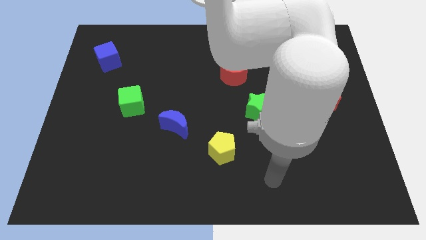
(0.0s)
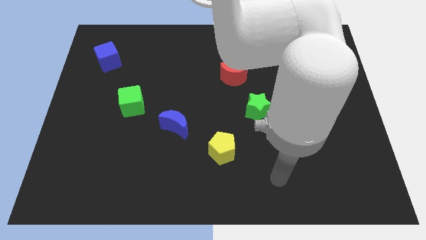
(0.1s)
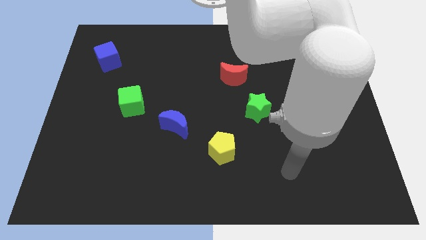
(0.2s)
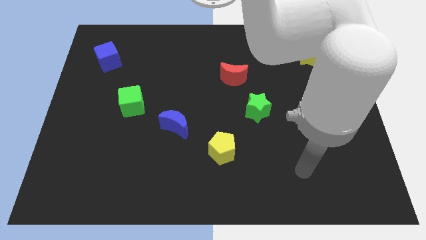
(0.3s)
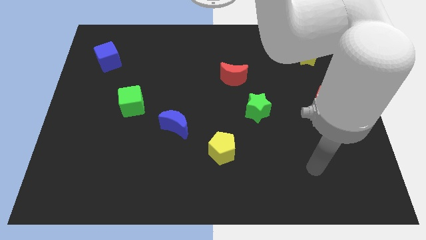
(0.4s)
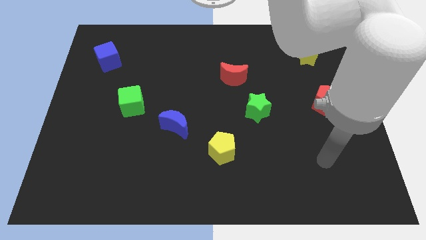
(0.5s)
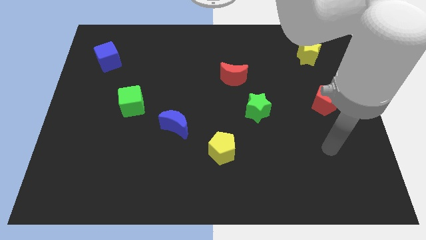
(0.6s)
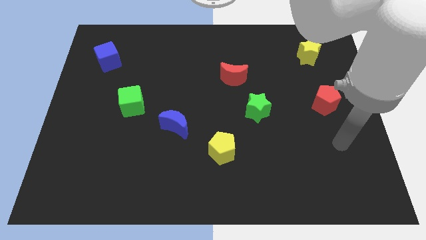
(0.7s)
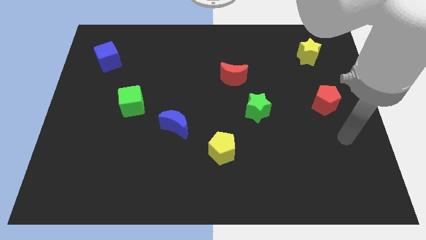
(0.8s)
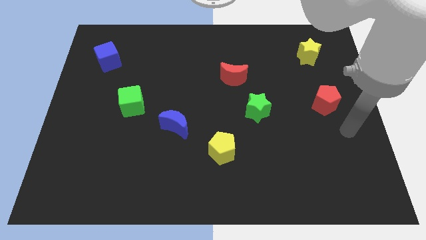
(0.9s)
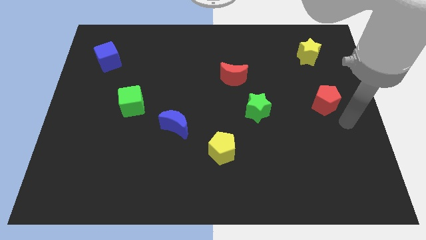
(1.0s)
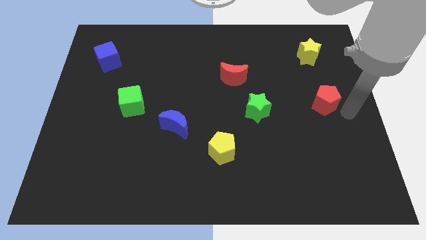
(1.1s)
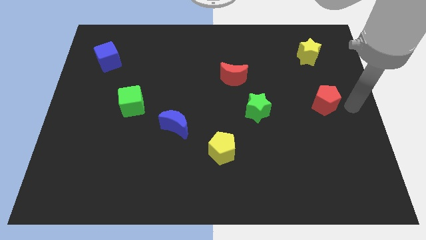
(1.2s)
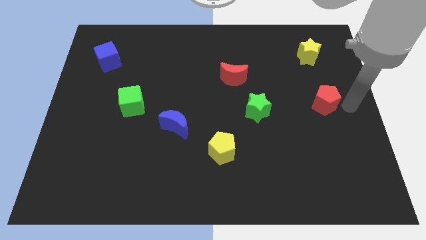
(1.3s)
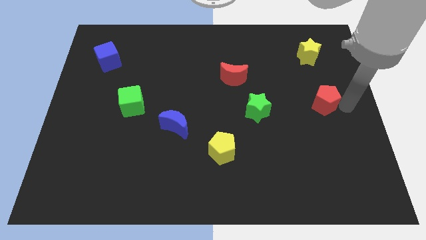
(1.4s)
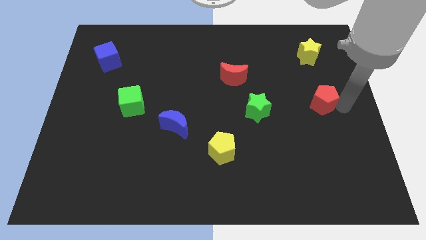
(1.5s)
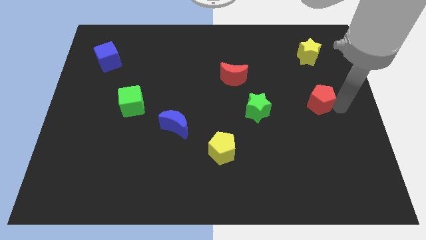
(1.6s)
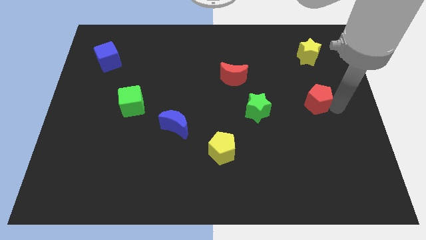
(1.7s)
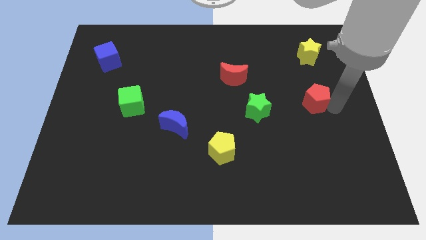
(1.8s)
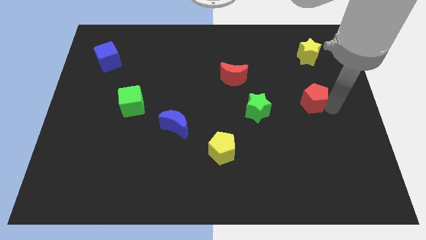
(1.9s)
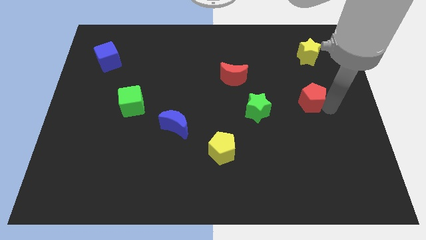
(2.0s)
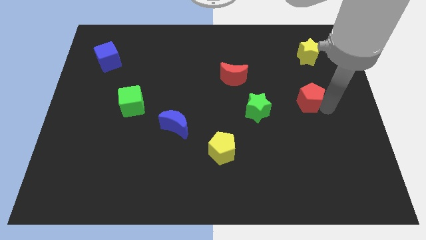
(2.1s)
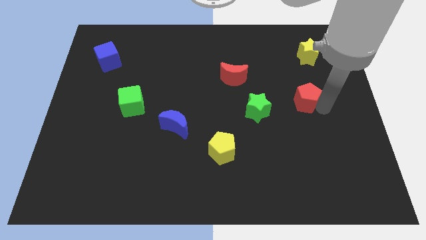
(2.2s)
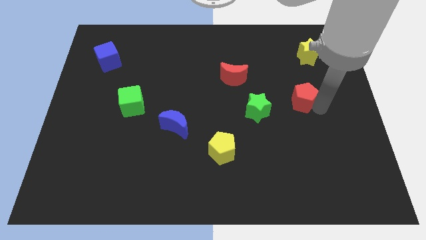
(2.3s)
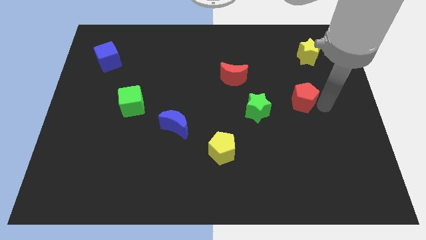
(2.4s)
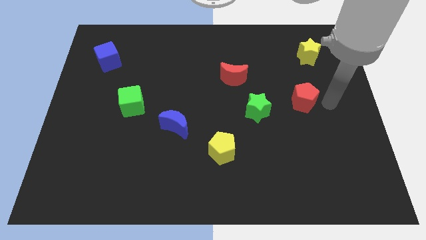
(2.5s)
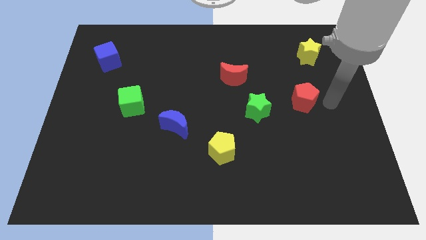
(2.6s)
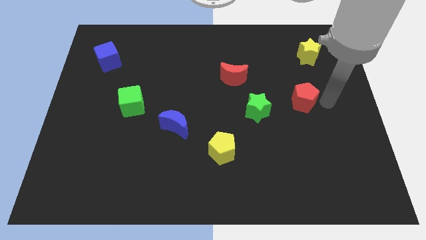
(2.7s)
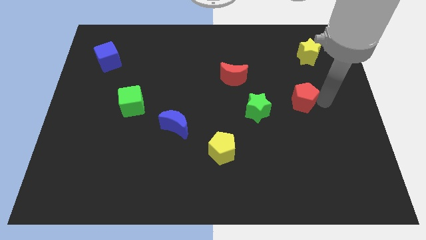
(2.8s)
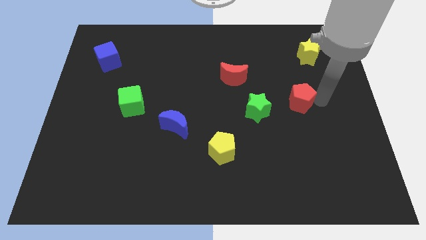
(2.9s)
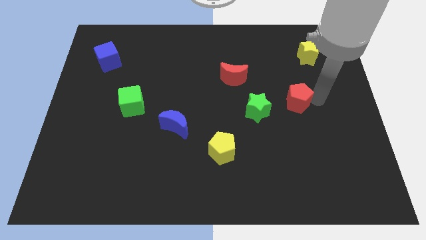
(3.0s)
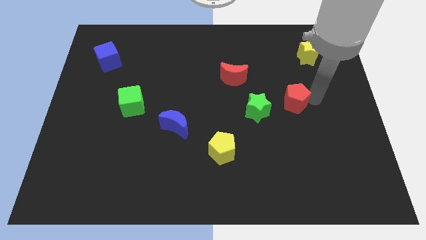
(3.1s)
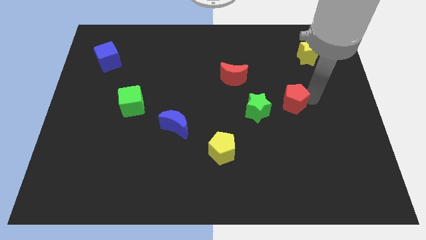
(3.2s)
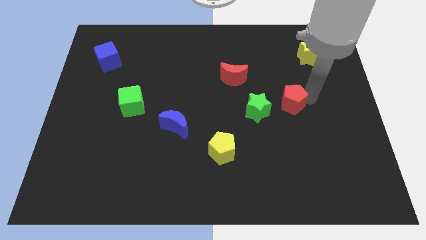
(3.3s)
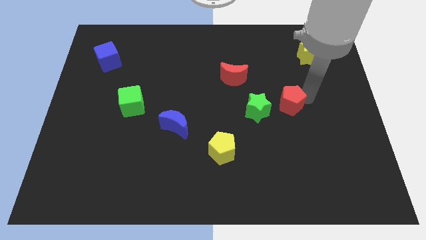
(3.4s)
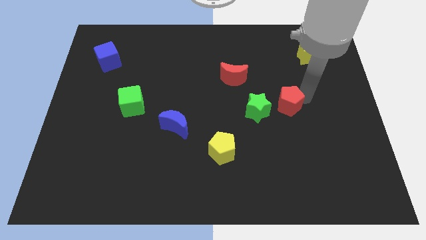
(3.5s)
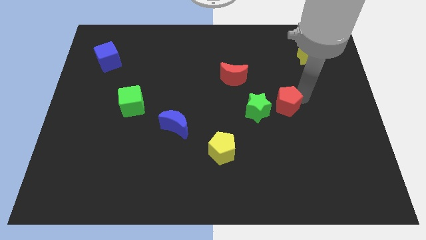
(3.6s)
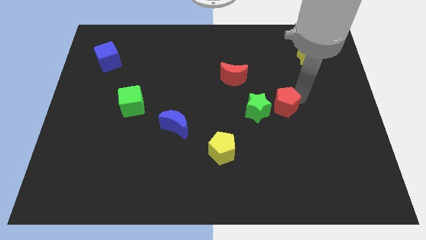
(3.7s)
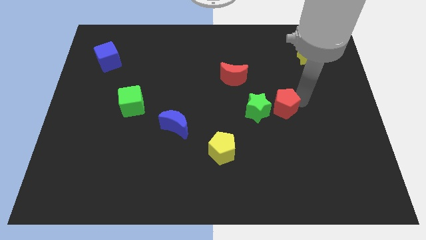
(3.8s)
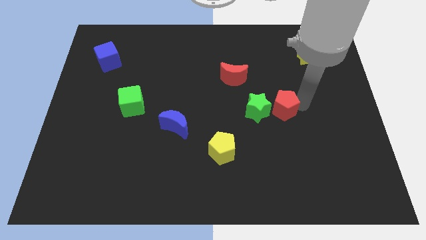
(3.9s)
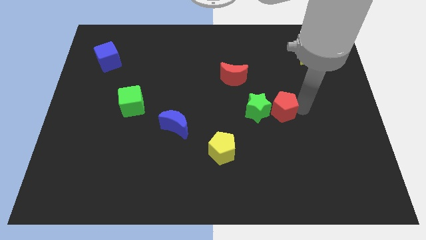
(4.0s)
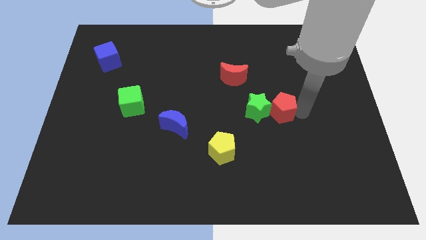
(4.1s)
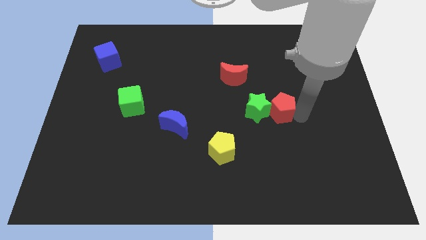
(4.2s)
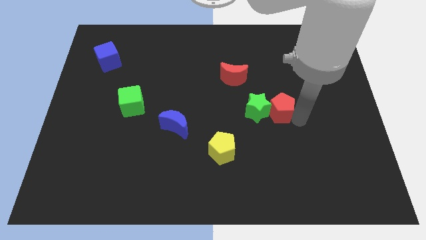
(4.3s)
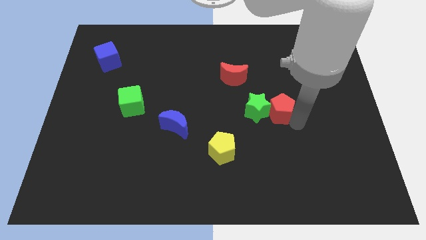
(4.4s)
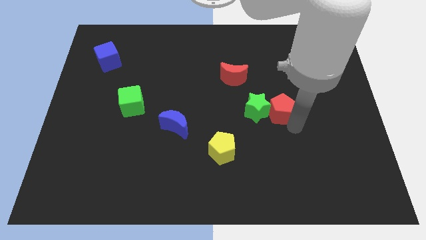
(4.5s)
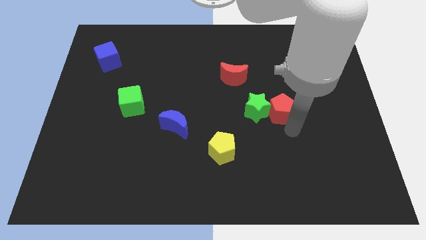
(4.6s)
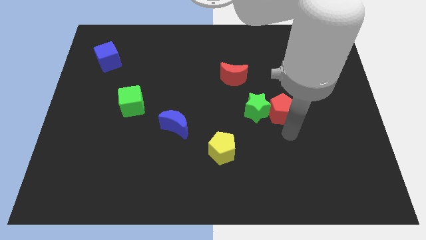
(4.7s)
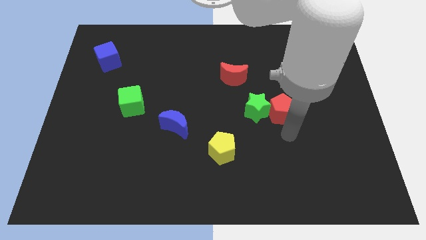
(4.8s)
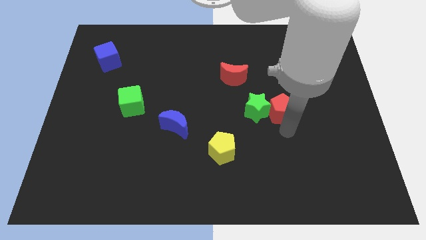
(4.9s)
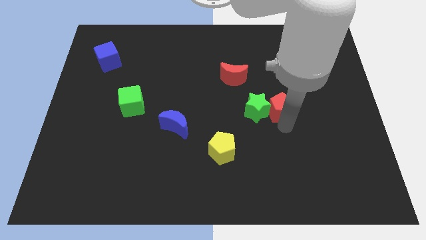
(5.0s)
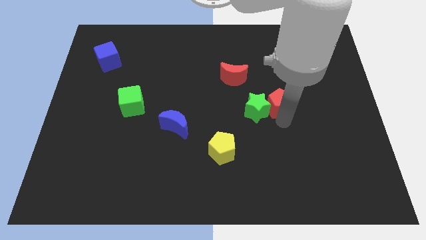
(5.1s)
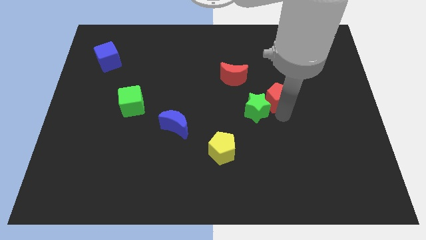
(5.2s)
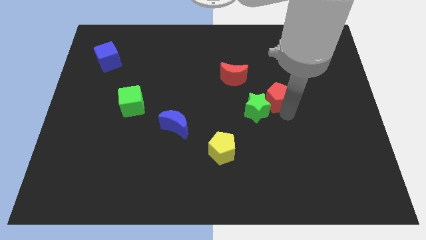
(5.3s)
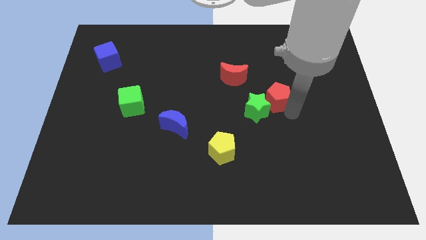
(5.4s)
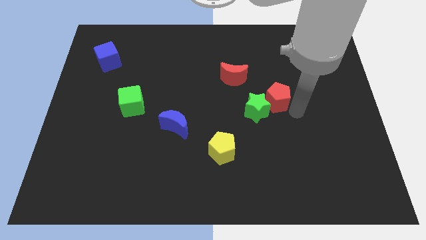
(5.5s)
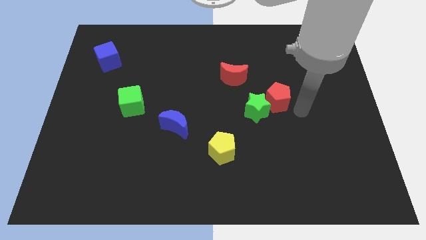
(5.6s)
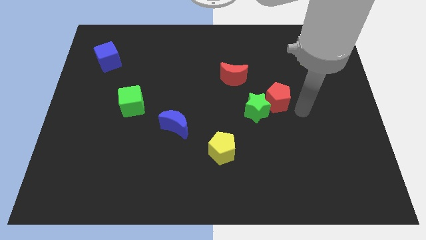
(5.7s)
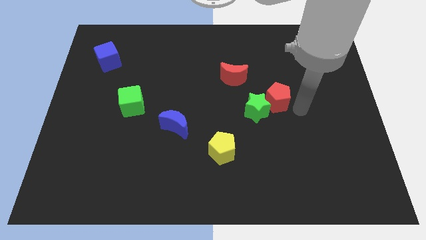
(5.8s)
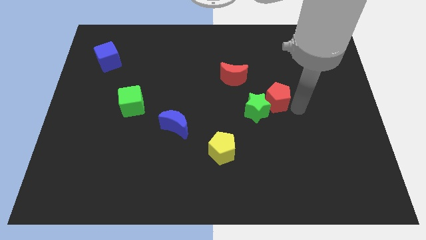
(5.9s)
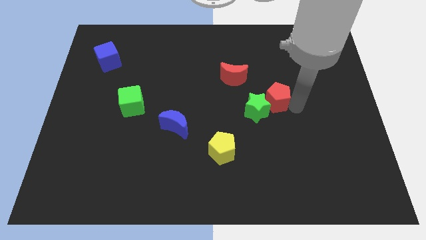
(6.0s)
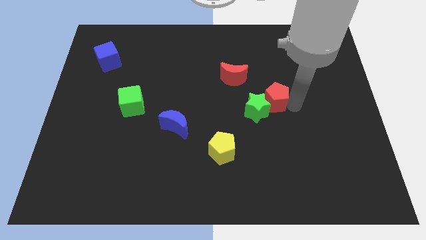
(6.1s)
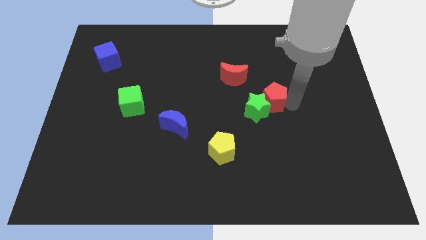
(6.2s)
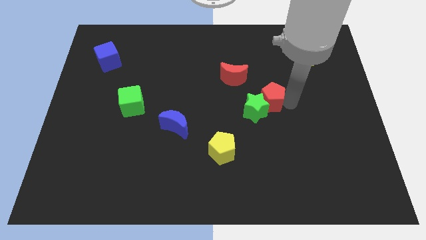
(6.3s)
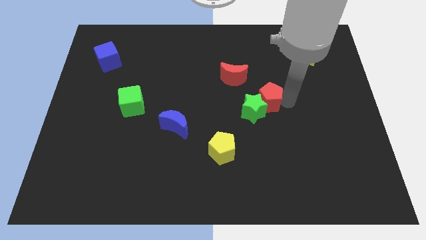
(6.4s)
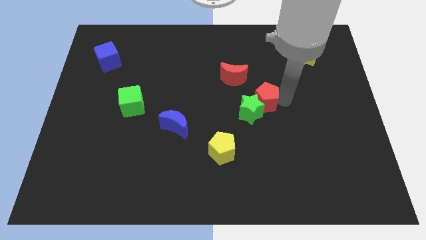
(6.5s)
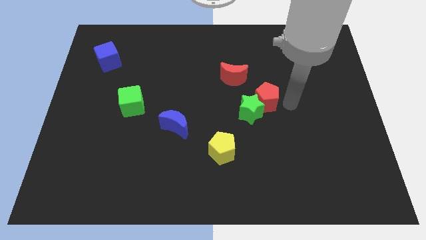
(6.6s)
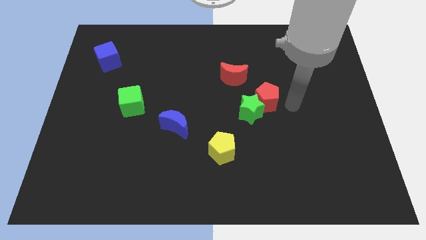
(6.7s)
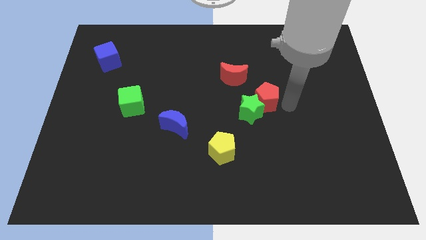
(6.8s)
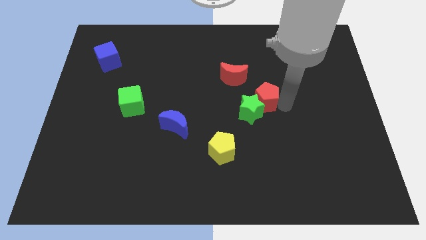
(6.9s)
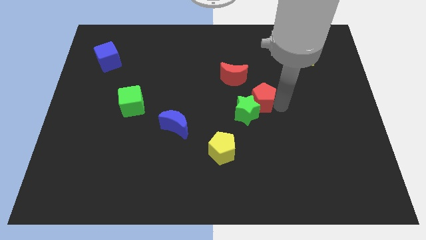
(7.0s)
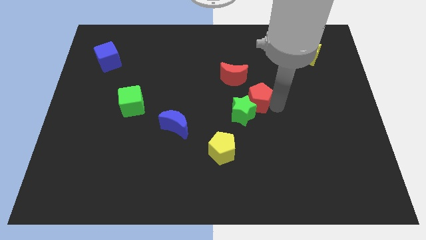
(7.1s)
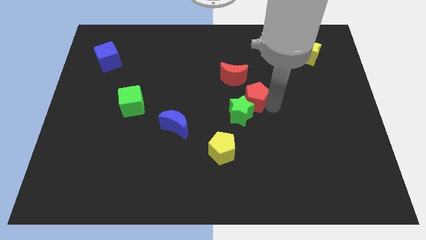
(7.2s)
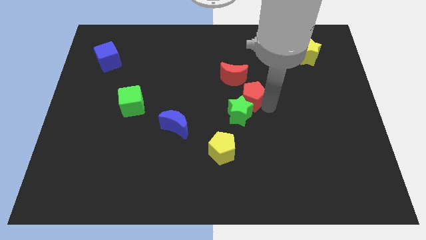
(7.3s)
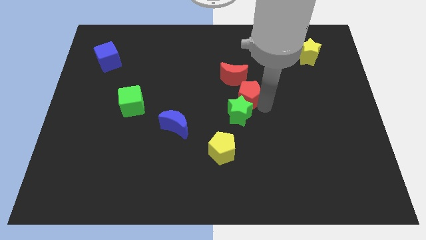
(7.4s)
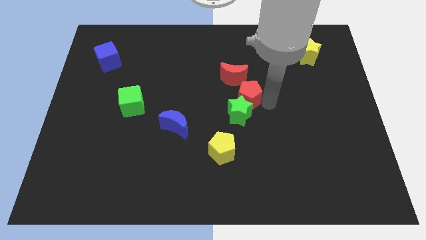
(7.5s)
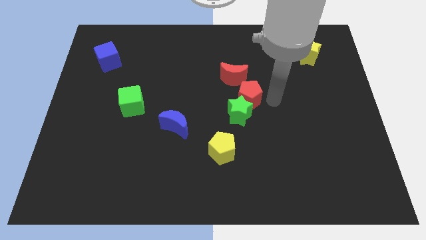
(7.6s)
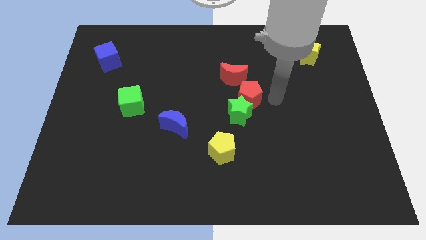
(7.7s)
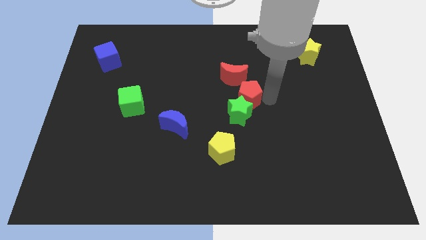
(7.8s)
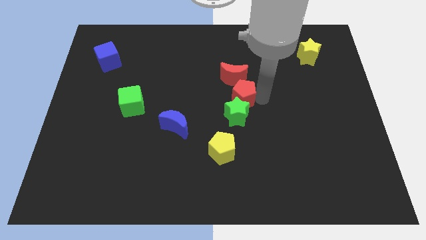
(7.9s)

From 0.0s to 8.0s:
slide the red pentagon to the top left side of the green star
